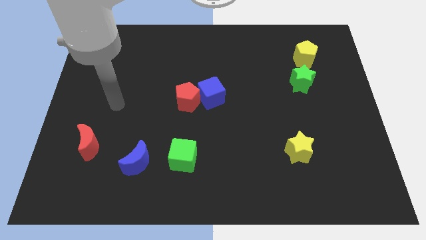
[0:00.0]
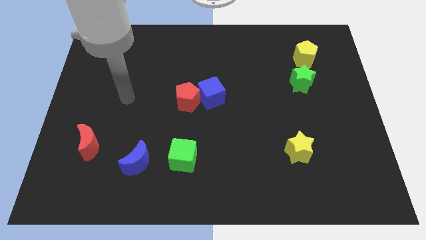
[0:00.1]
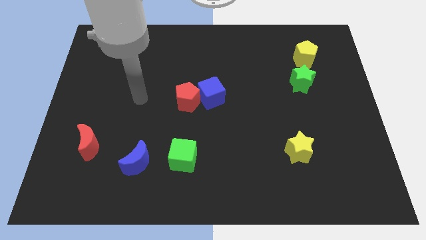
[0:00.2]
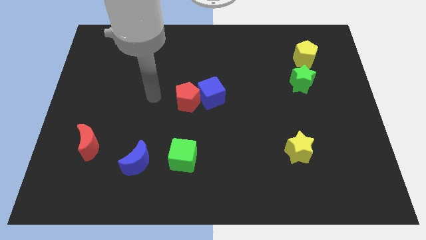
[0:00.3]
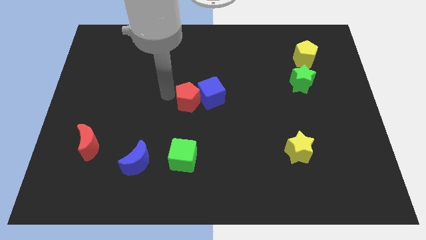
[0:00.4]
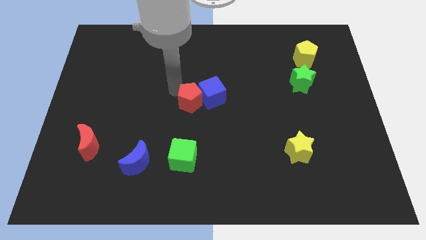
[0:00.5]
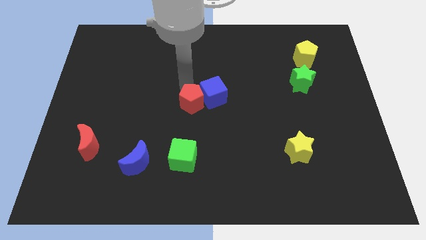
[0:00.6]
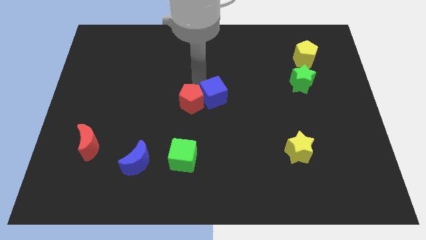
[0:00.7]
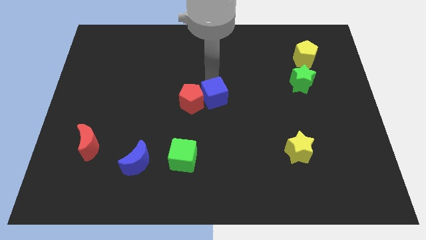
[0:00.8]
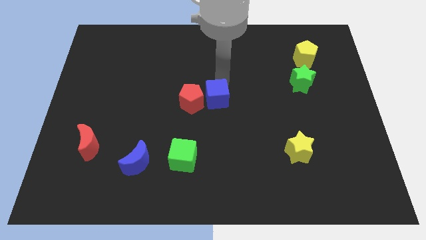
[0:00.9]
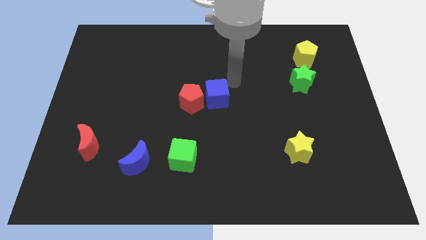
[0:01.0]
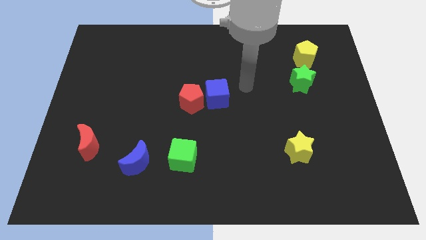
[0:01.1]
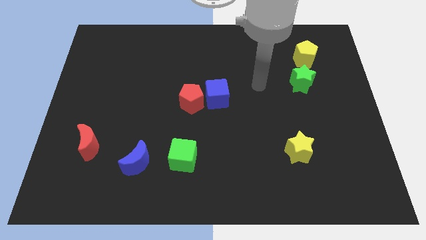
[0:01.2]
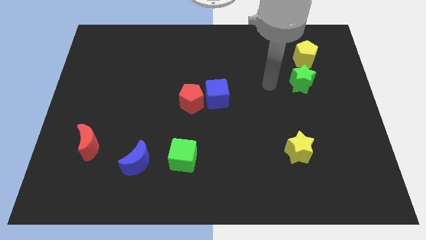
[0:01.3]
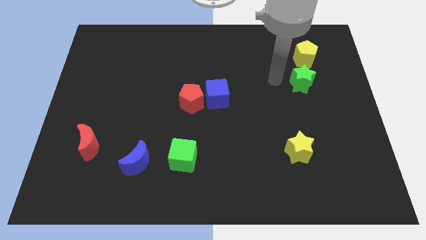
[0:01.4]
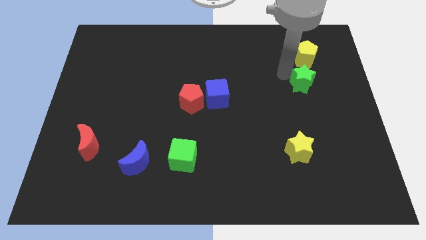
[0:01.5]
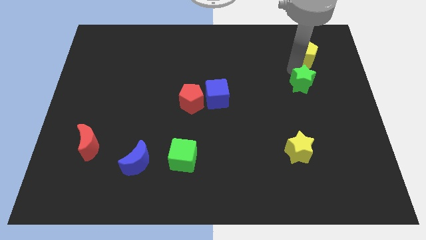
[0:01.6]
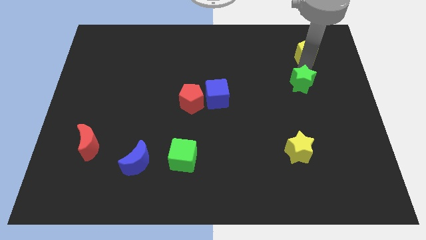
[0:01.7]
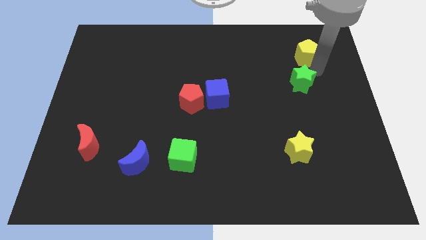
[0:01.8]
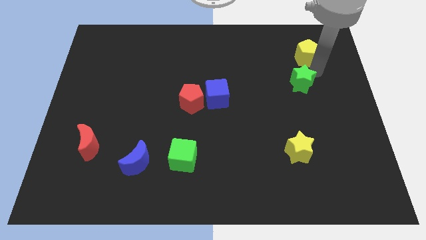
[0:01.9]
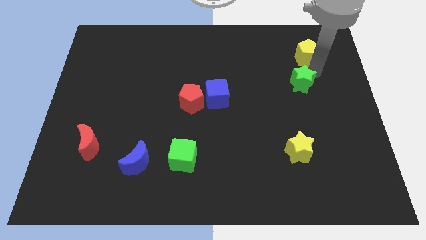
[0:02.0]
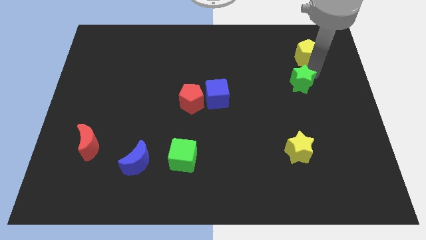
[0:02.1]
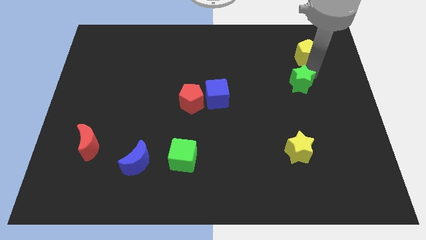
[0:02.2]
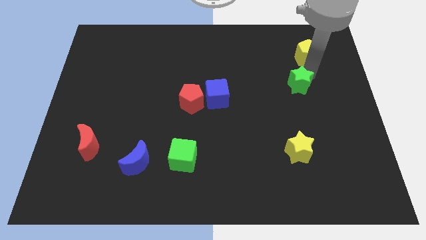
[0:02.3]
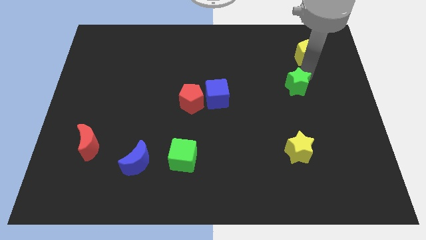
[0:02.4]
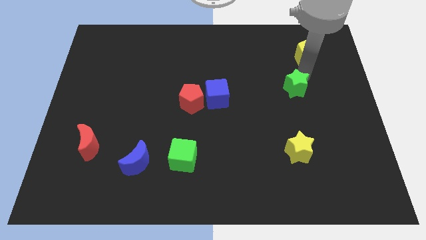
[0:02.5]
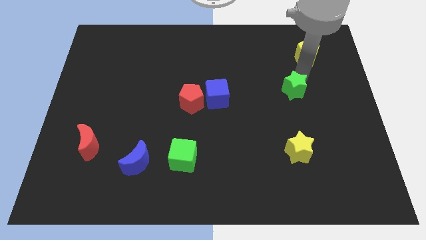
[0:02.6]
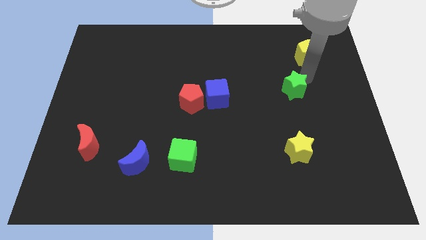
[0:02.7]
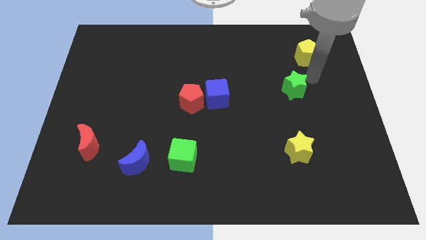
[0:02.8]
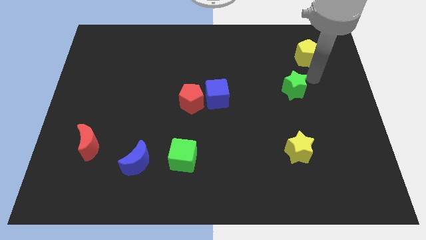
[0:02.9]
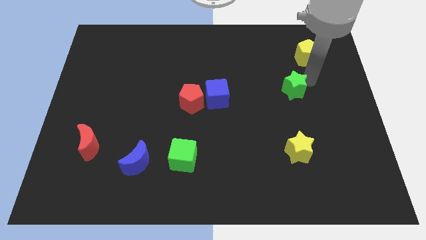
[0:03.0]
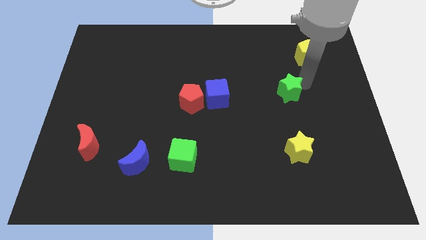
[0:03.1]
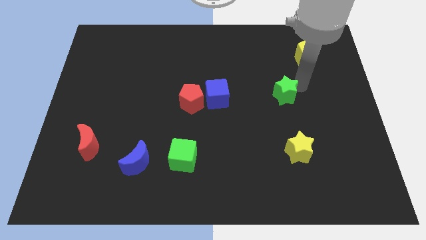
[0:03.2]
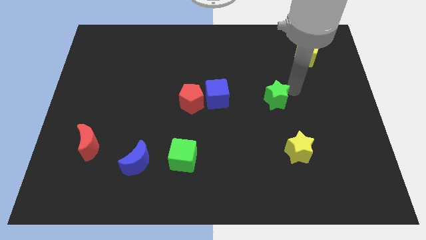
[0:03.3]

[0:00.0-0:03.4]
push the green star somewhat diagonally down and left

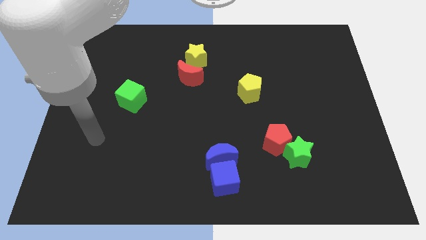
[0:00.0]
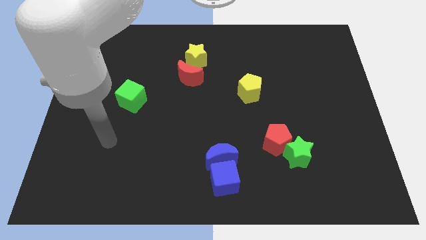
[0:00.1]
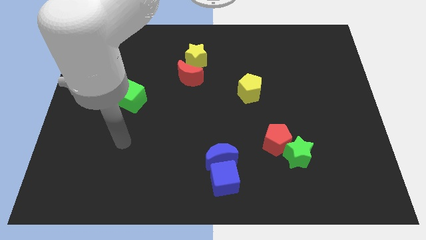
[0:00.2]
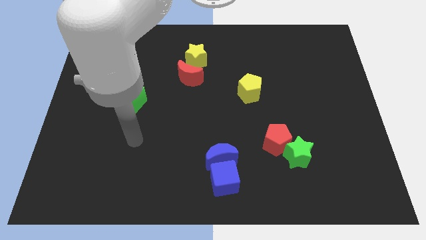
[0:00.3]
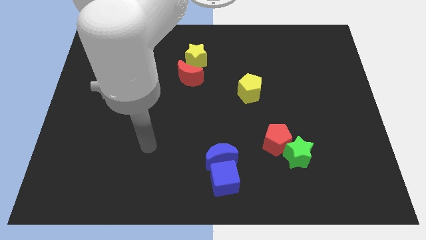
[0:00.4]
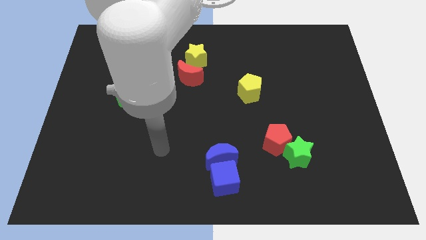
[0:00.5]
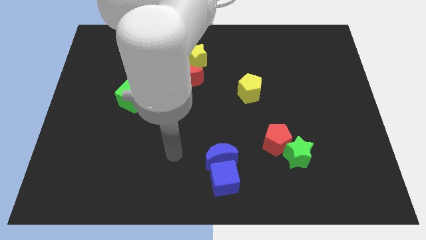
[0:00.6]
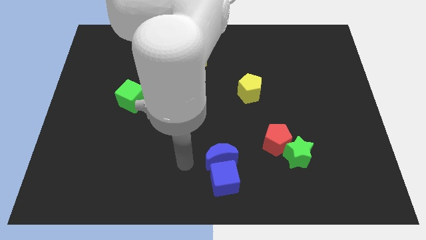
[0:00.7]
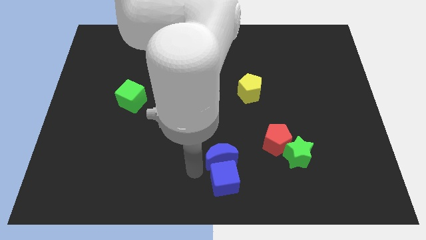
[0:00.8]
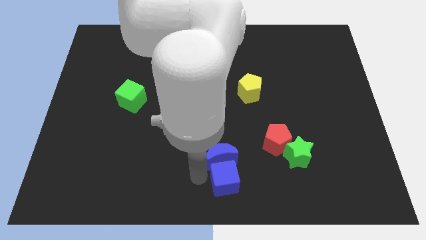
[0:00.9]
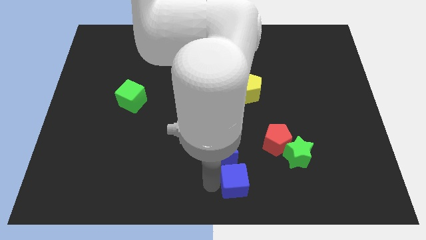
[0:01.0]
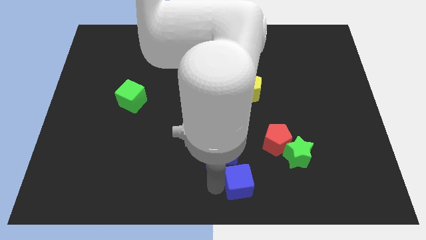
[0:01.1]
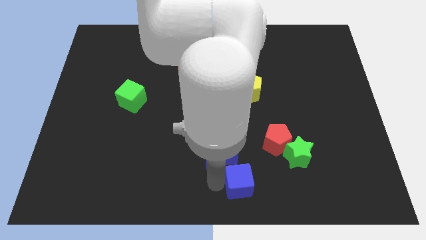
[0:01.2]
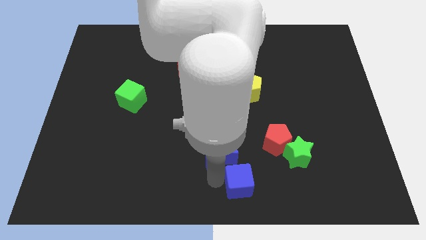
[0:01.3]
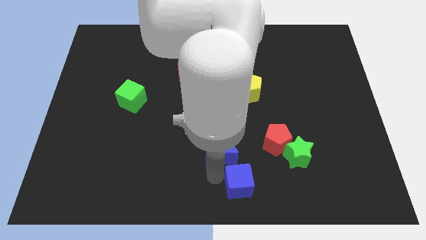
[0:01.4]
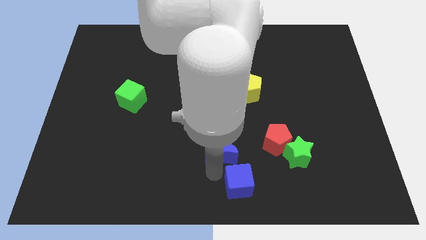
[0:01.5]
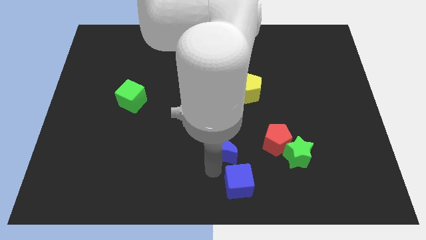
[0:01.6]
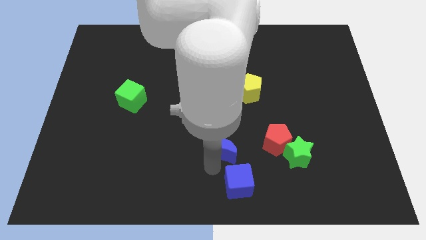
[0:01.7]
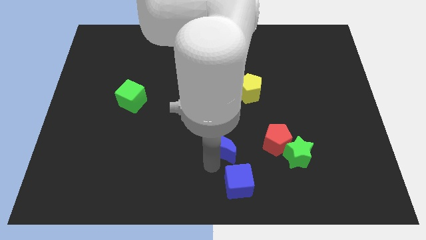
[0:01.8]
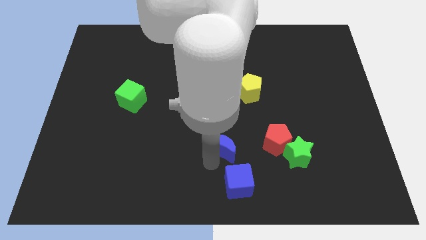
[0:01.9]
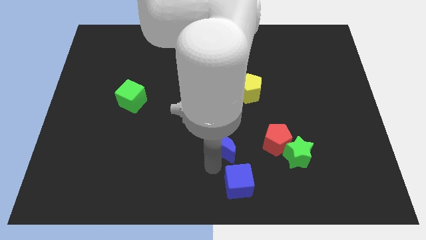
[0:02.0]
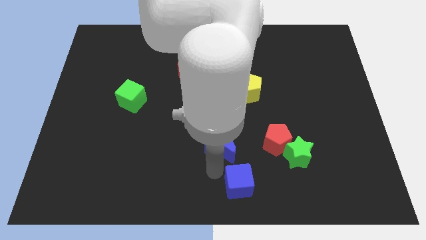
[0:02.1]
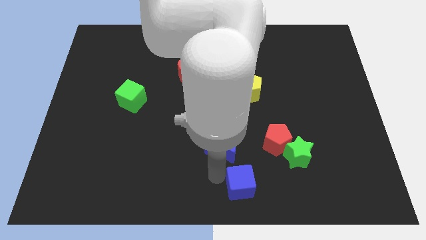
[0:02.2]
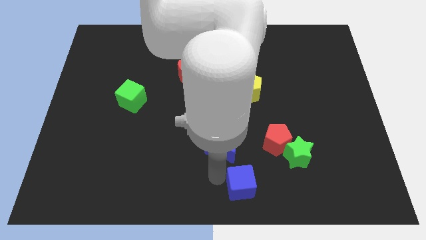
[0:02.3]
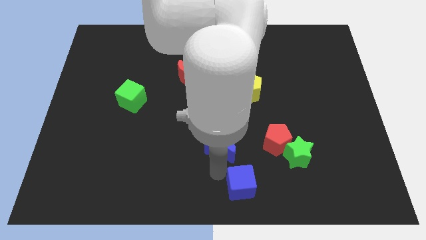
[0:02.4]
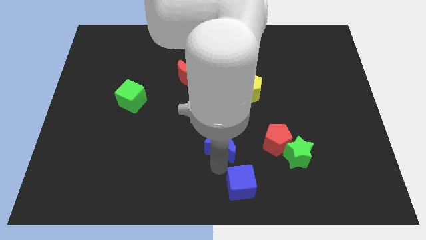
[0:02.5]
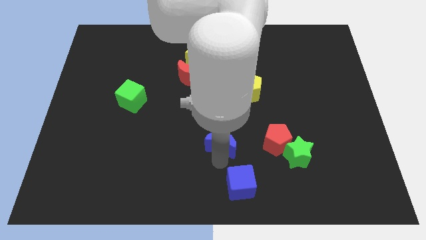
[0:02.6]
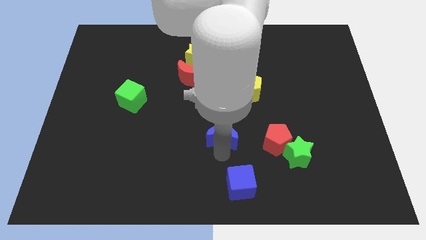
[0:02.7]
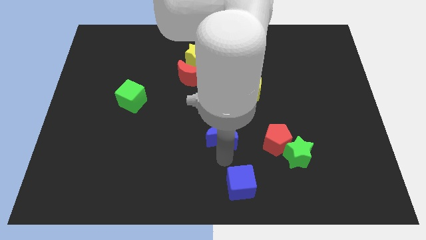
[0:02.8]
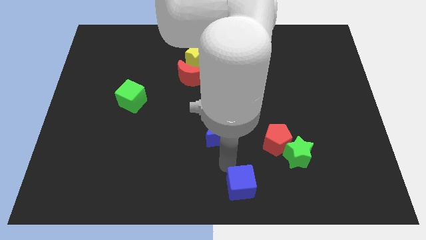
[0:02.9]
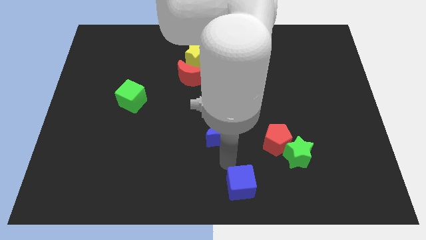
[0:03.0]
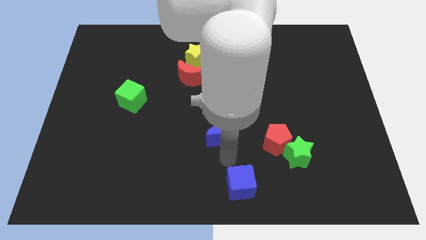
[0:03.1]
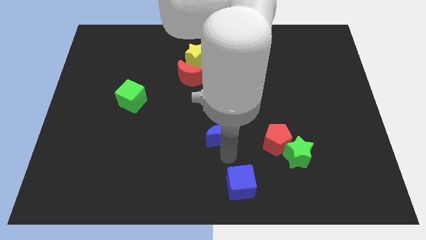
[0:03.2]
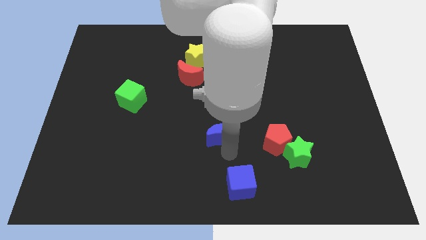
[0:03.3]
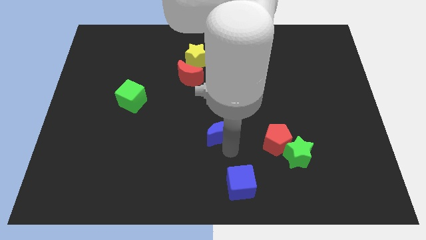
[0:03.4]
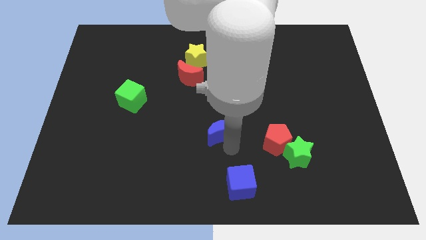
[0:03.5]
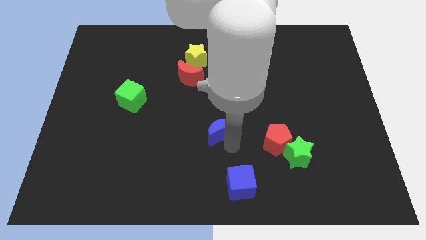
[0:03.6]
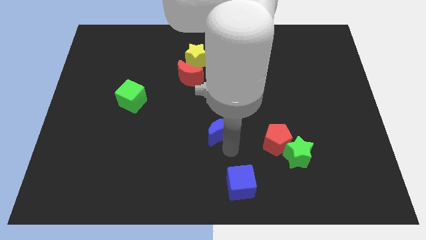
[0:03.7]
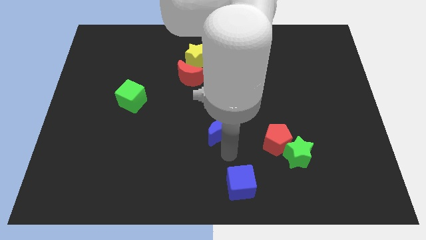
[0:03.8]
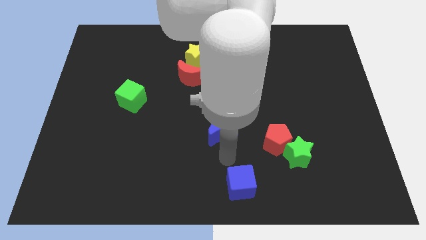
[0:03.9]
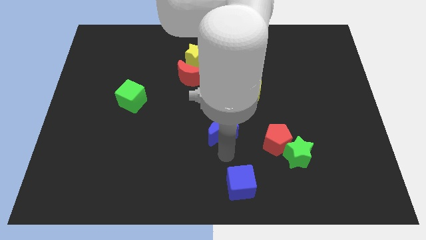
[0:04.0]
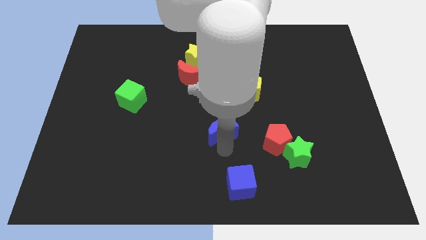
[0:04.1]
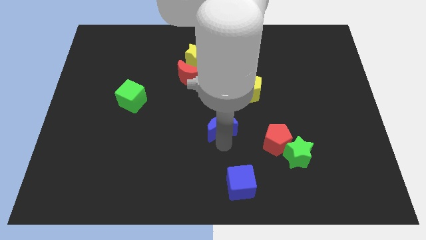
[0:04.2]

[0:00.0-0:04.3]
slightly push the blue moon up

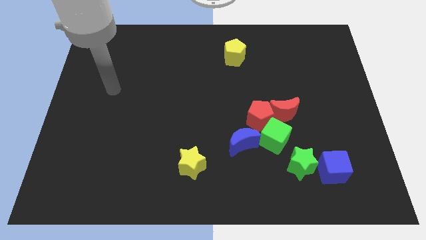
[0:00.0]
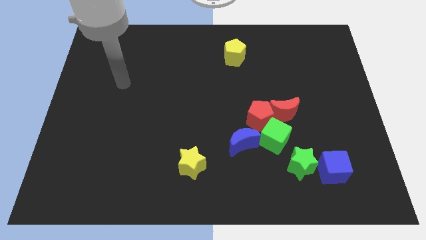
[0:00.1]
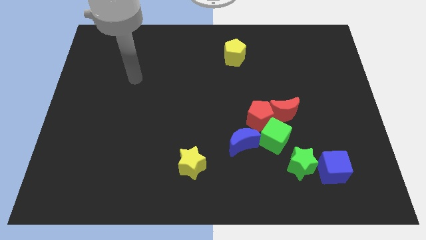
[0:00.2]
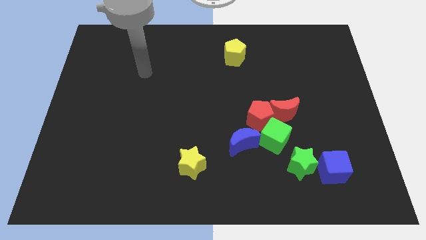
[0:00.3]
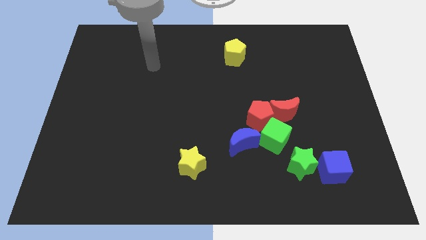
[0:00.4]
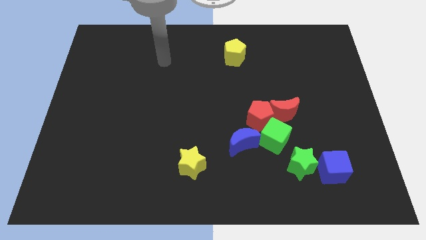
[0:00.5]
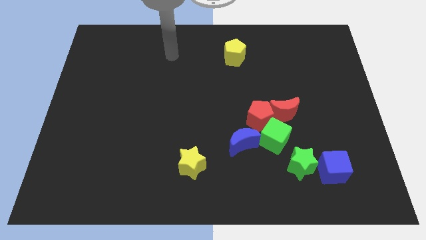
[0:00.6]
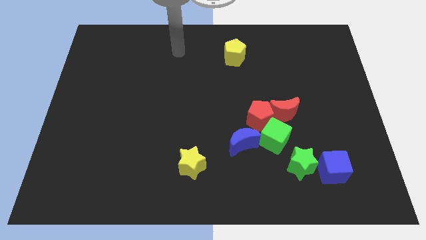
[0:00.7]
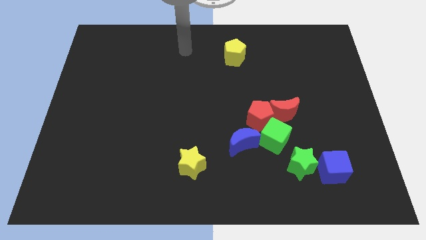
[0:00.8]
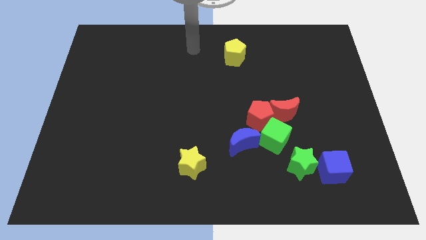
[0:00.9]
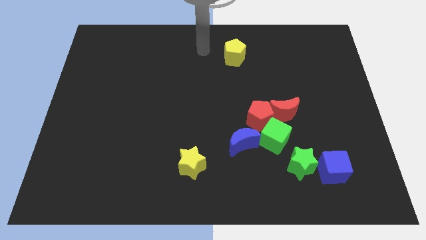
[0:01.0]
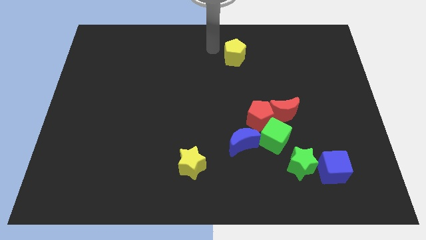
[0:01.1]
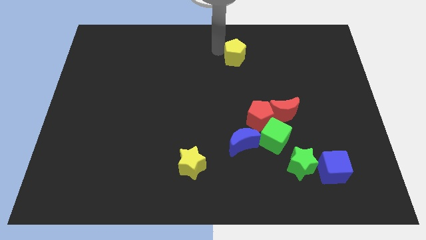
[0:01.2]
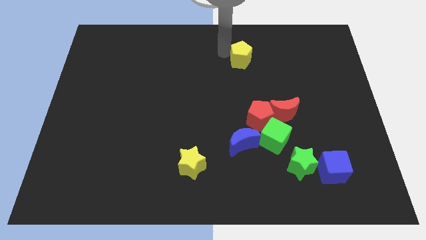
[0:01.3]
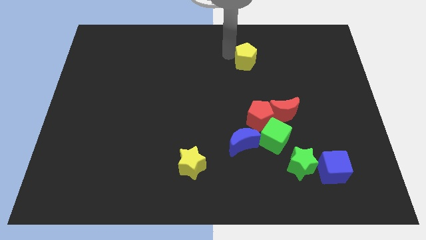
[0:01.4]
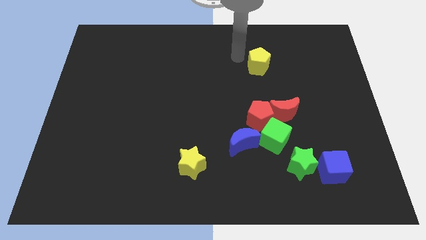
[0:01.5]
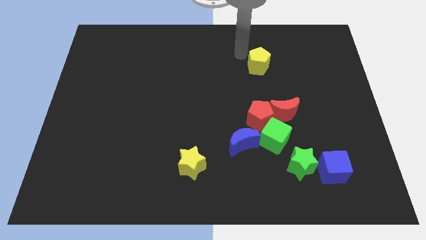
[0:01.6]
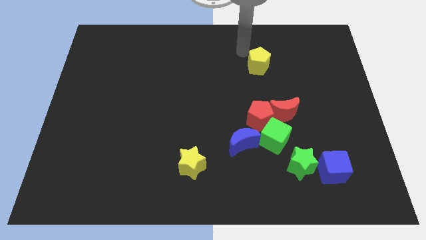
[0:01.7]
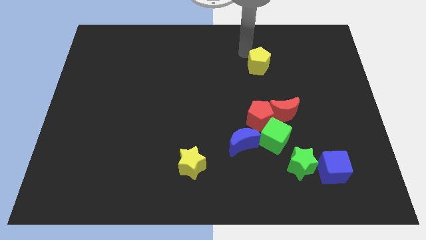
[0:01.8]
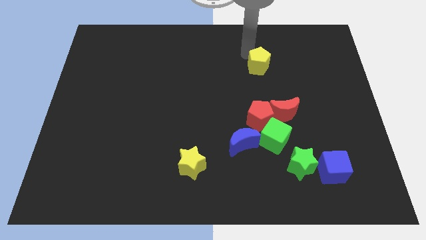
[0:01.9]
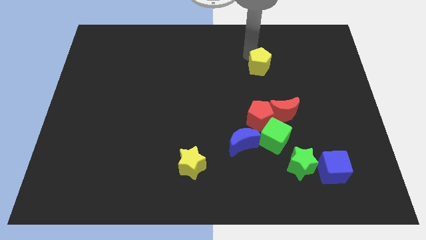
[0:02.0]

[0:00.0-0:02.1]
push the yellow pentagon a bit down and right
